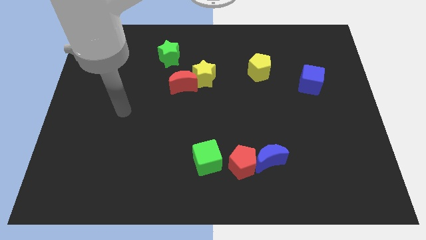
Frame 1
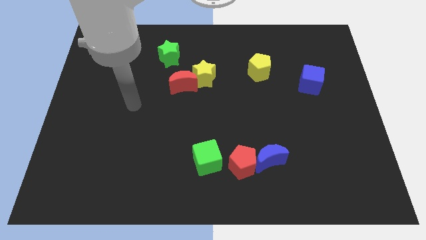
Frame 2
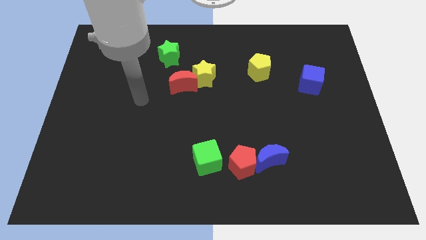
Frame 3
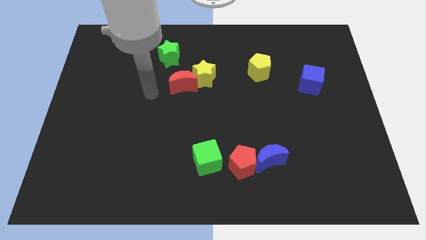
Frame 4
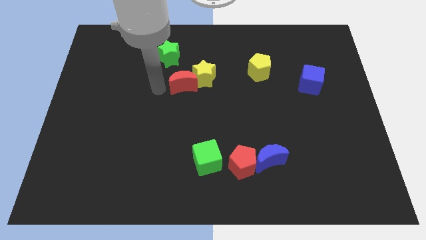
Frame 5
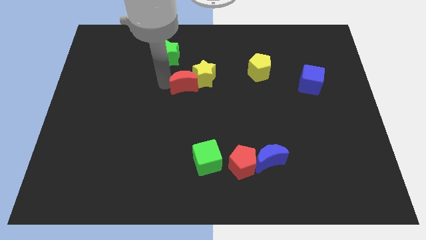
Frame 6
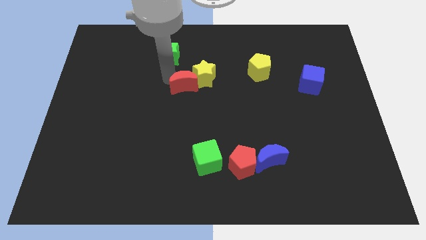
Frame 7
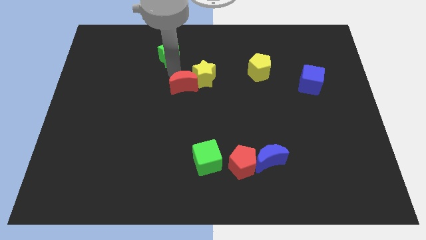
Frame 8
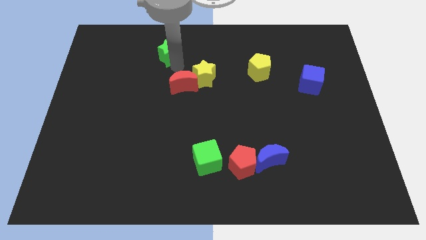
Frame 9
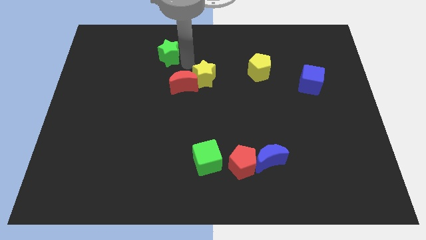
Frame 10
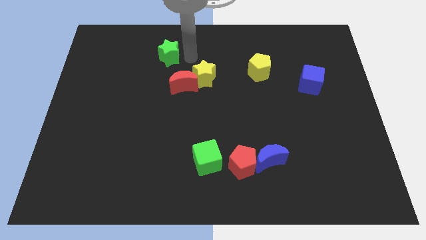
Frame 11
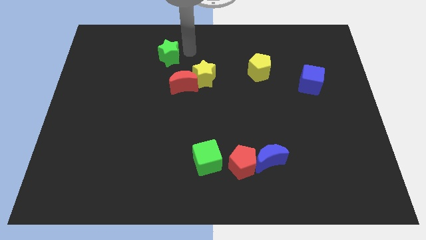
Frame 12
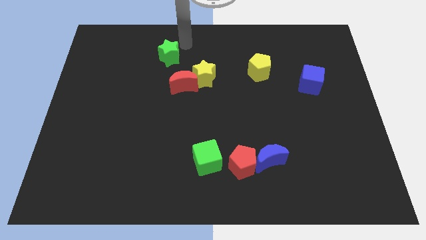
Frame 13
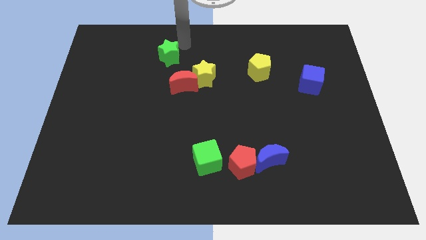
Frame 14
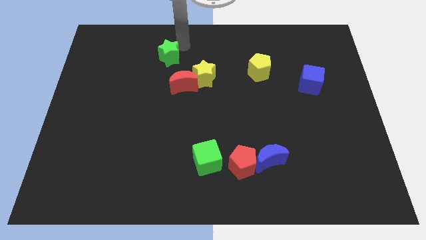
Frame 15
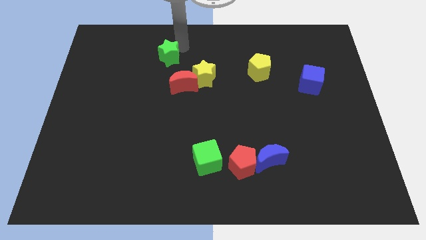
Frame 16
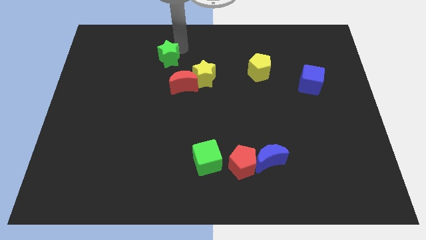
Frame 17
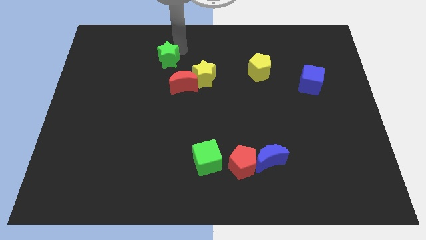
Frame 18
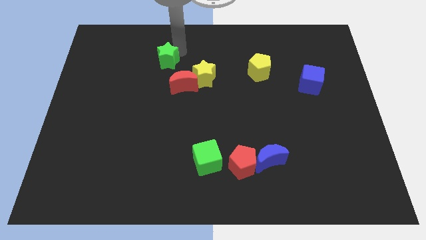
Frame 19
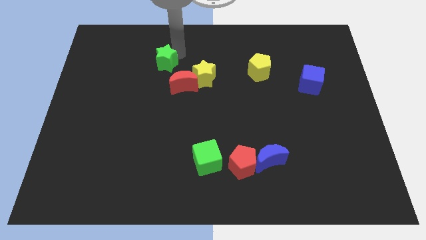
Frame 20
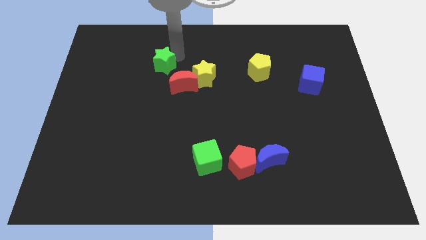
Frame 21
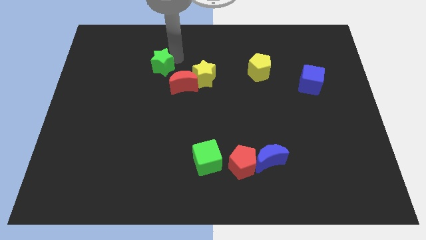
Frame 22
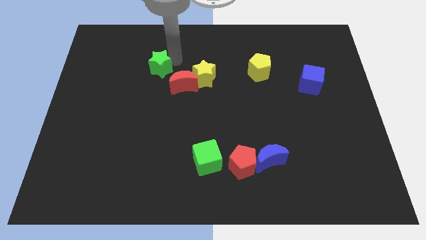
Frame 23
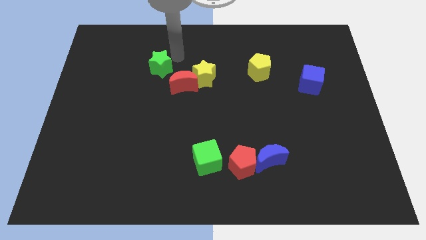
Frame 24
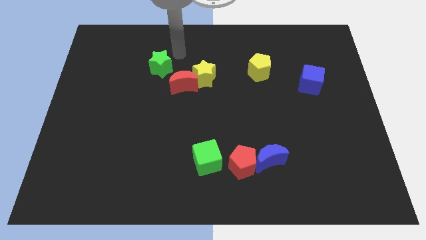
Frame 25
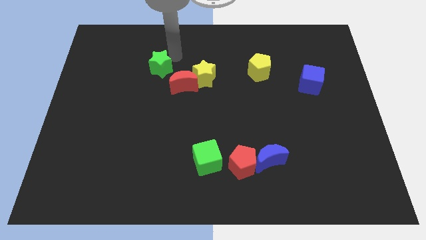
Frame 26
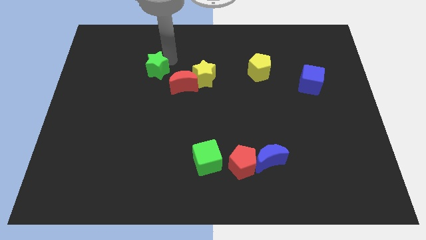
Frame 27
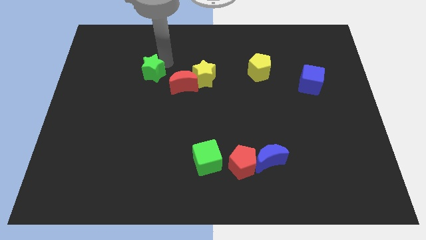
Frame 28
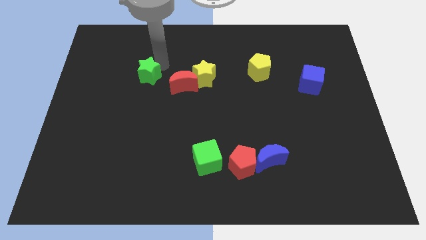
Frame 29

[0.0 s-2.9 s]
slightly move the green star down and then left

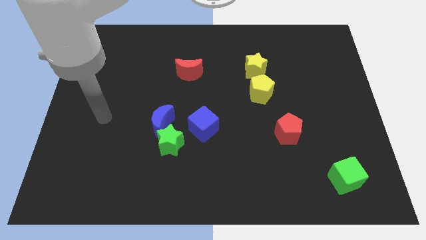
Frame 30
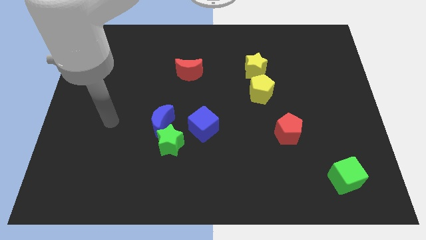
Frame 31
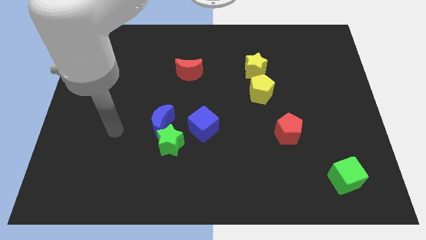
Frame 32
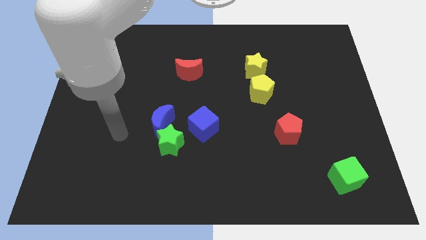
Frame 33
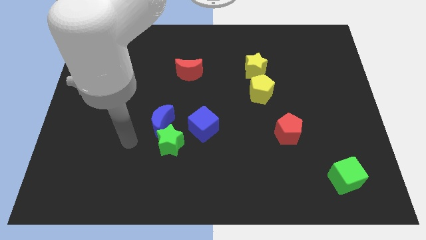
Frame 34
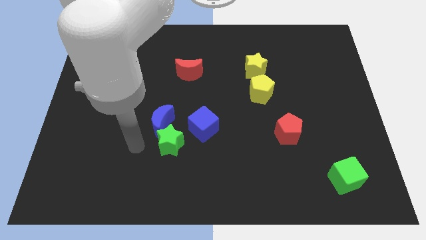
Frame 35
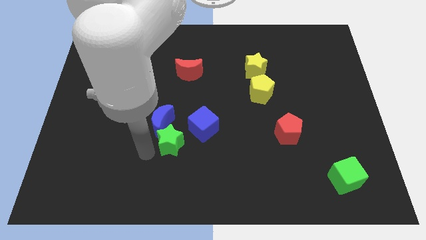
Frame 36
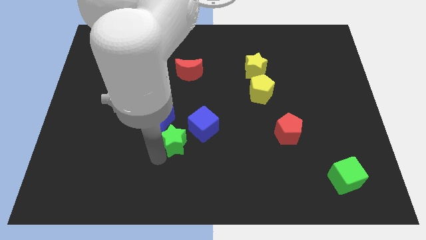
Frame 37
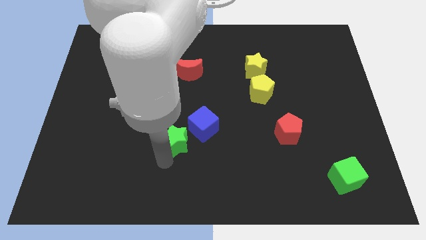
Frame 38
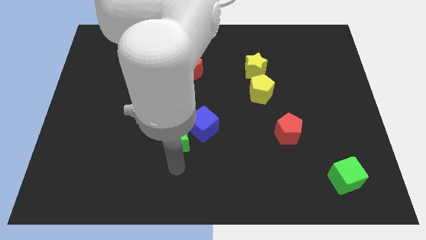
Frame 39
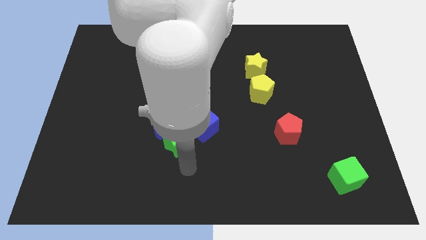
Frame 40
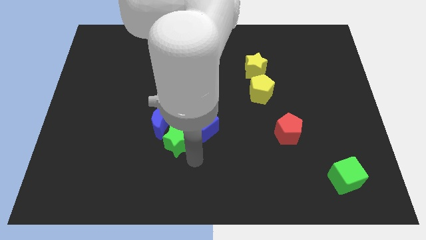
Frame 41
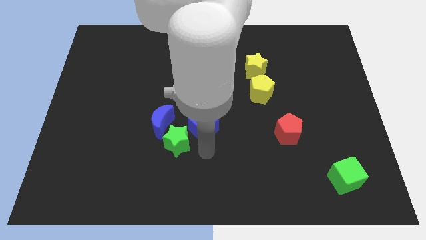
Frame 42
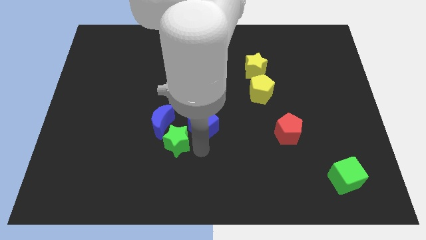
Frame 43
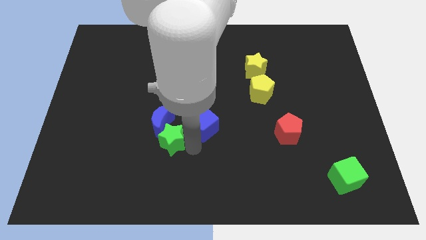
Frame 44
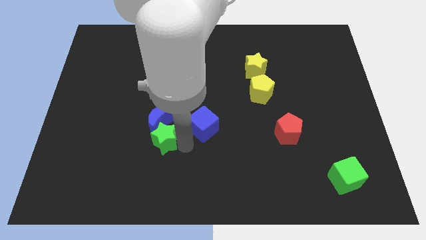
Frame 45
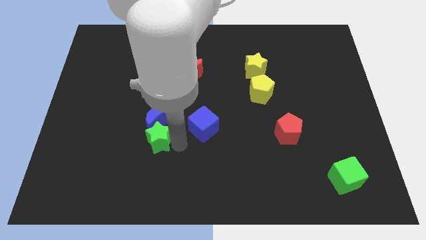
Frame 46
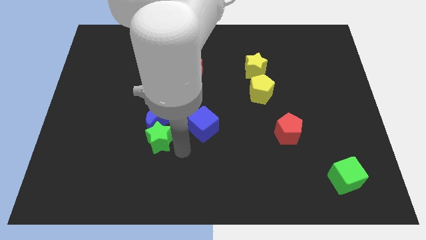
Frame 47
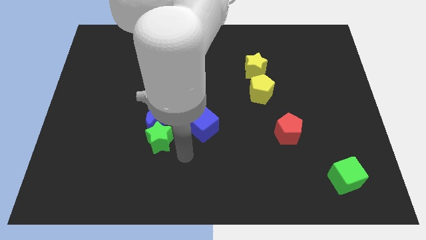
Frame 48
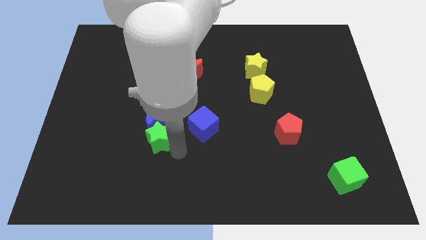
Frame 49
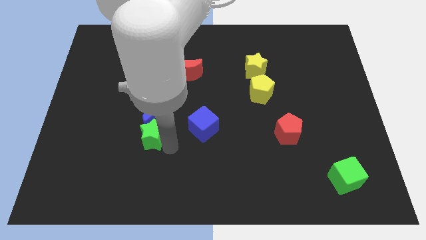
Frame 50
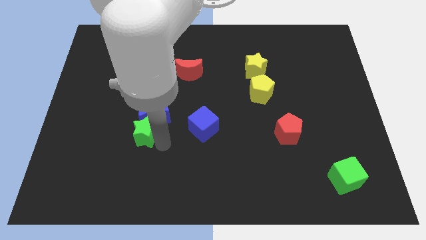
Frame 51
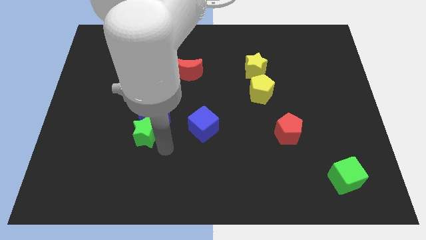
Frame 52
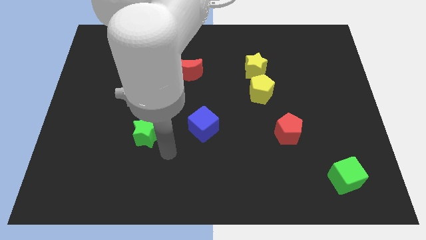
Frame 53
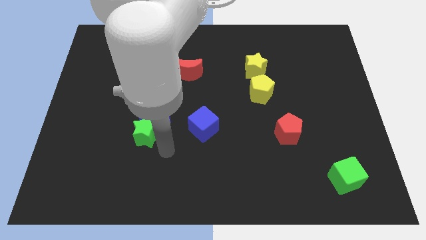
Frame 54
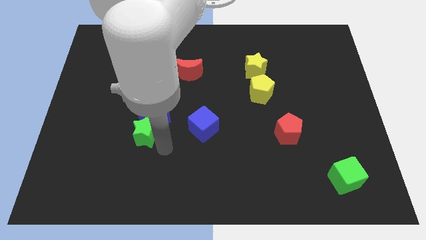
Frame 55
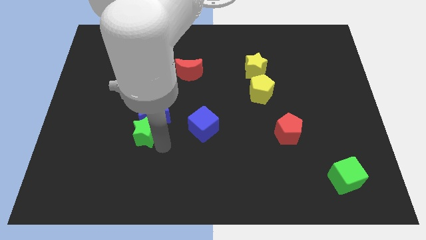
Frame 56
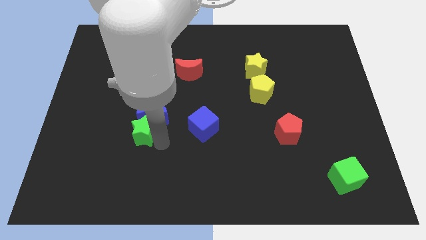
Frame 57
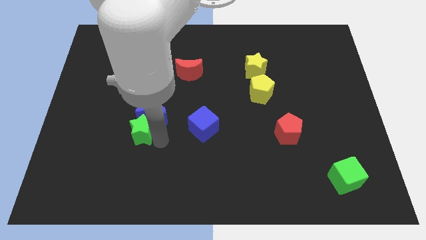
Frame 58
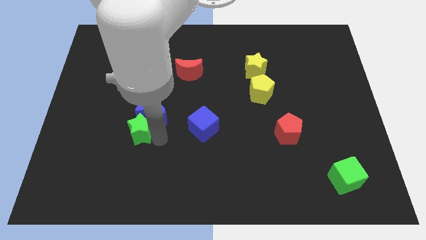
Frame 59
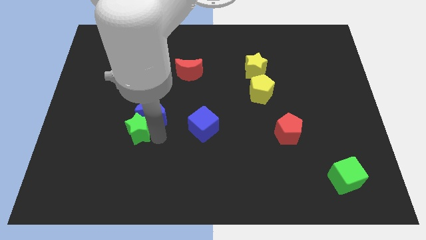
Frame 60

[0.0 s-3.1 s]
slightly slide the green star upwards and left diagonally

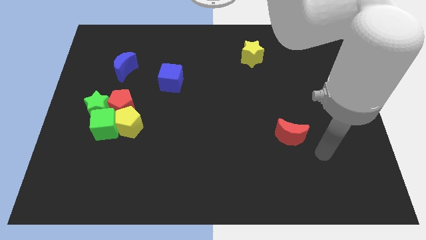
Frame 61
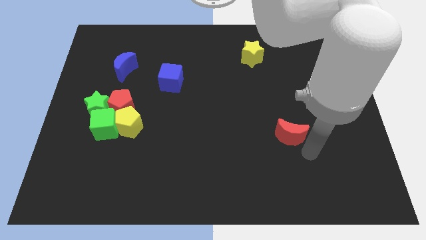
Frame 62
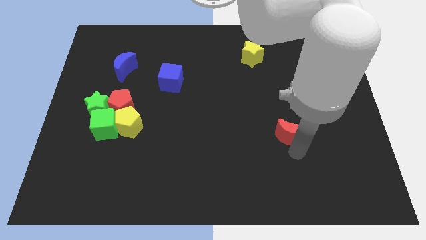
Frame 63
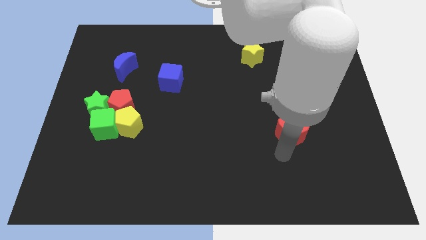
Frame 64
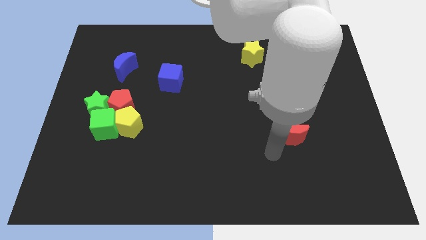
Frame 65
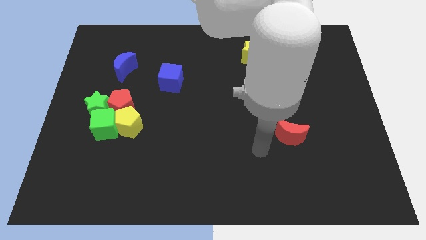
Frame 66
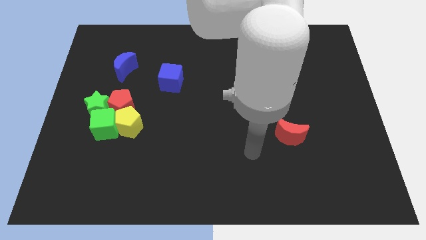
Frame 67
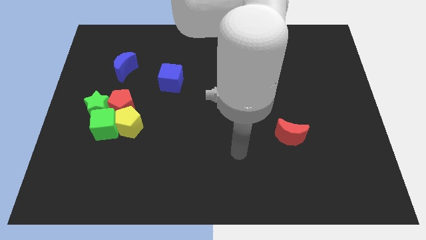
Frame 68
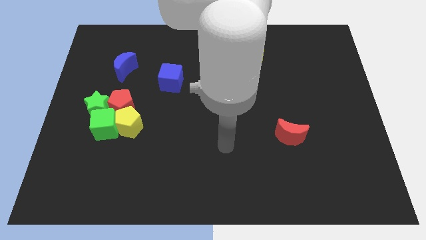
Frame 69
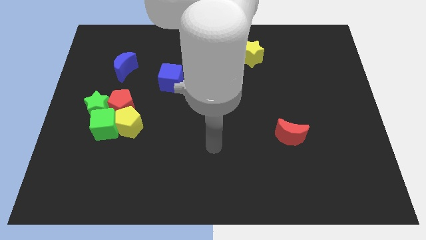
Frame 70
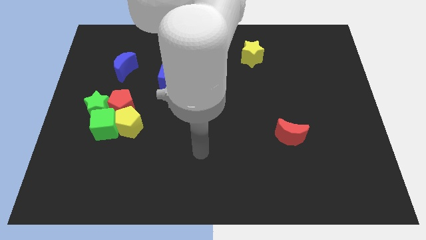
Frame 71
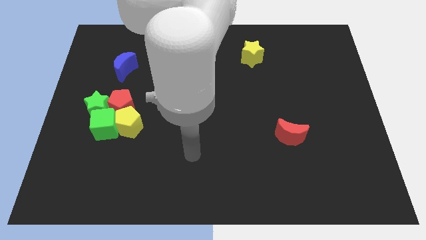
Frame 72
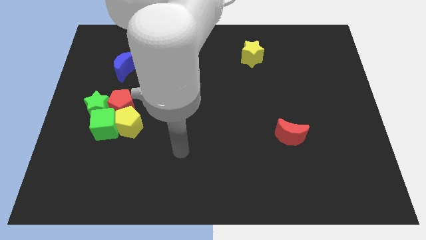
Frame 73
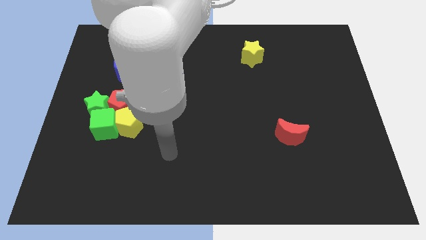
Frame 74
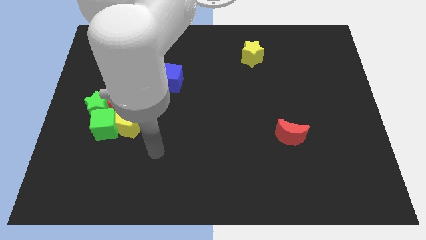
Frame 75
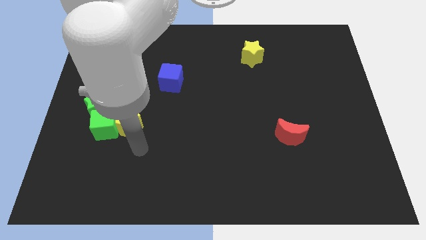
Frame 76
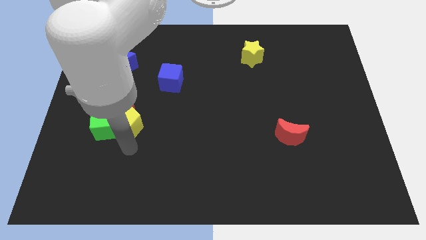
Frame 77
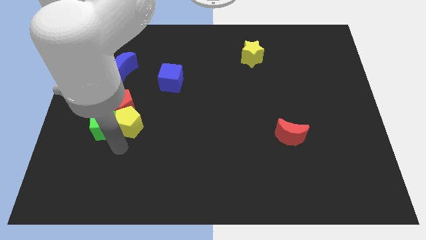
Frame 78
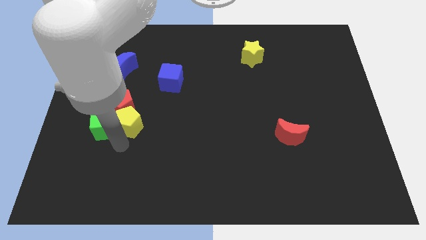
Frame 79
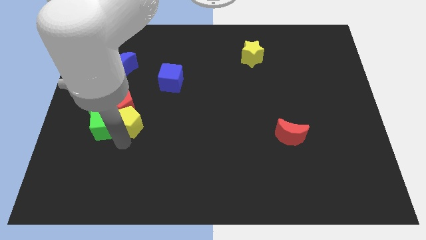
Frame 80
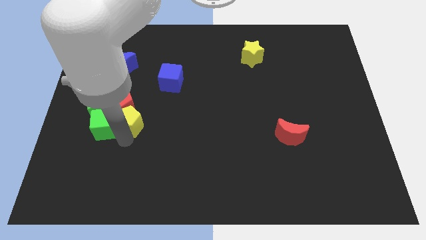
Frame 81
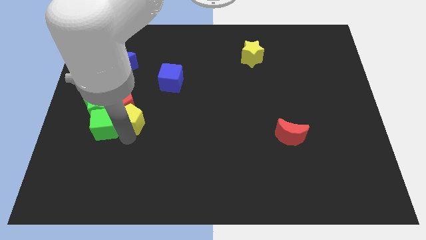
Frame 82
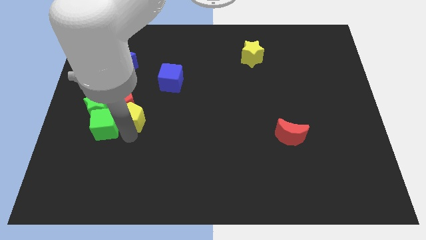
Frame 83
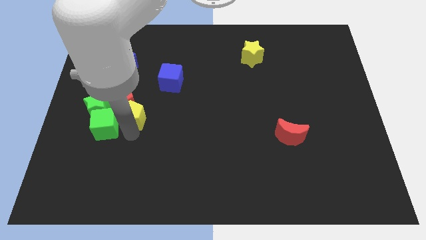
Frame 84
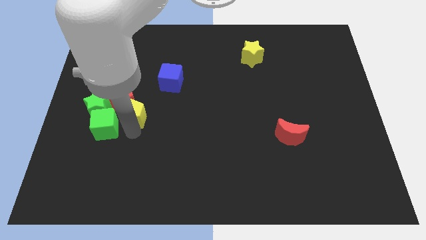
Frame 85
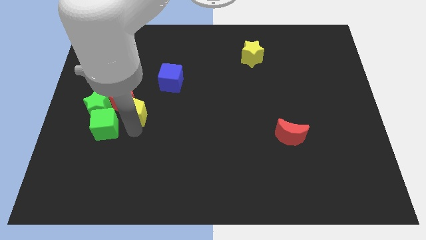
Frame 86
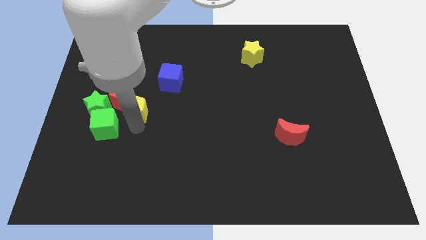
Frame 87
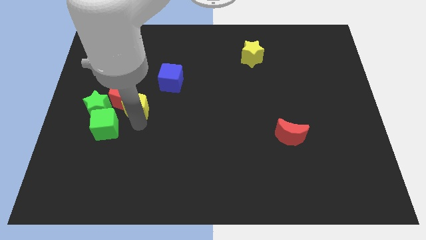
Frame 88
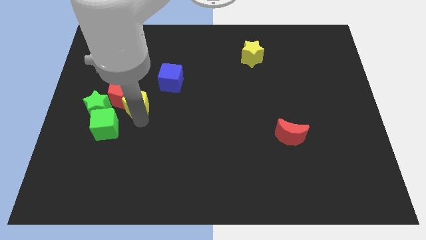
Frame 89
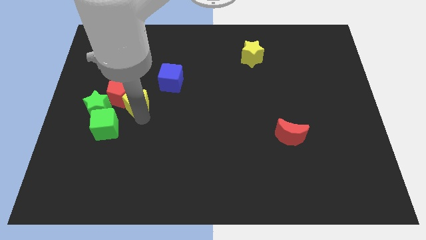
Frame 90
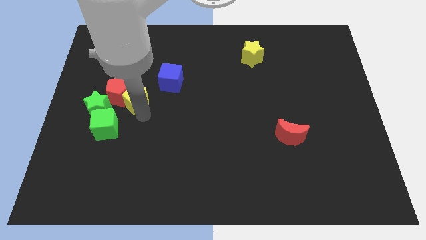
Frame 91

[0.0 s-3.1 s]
slightly slide the yellow pentagon up
